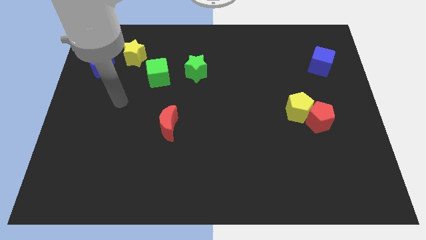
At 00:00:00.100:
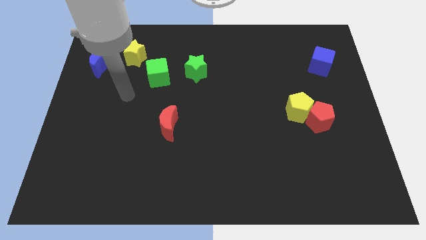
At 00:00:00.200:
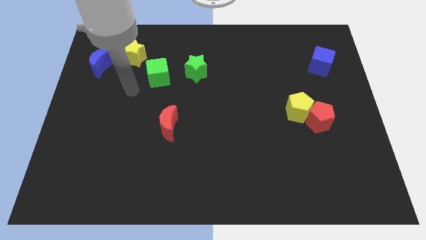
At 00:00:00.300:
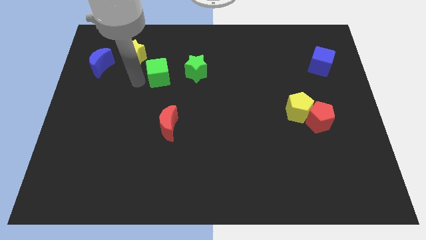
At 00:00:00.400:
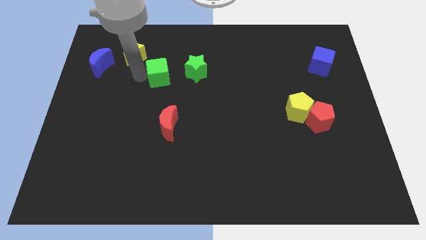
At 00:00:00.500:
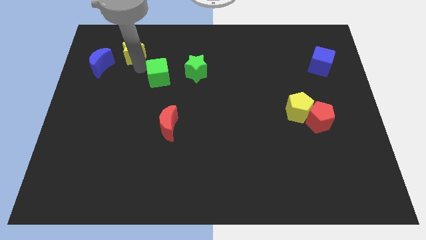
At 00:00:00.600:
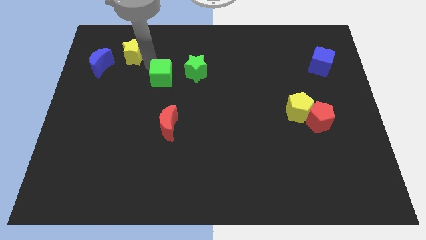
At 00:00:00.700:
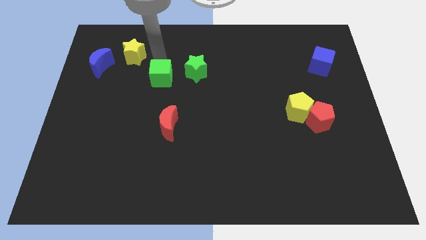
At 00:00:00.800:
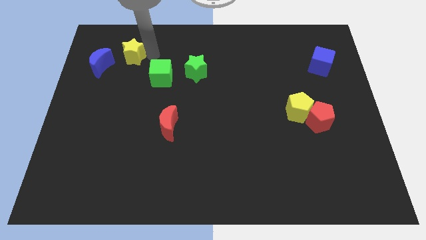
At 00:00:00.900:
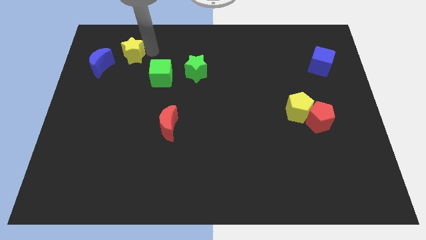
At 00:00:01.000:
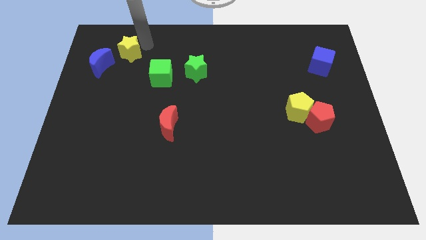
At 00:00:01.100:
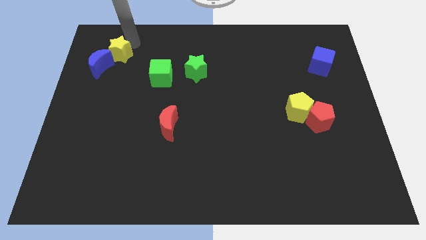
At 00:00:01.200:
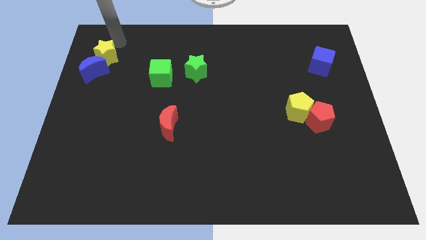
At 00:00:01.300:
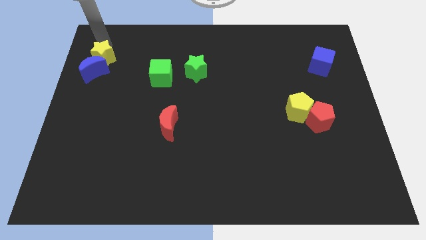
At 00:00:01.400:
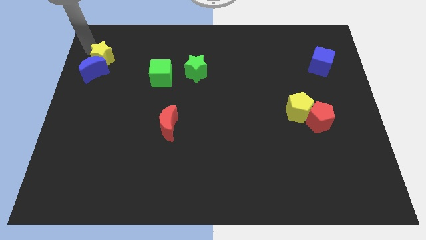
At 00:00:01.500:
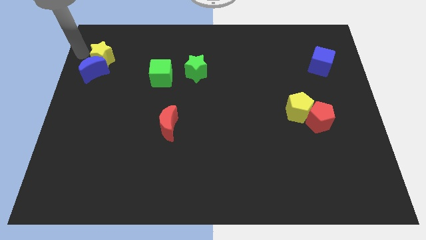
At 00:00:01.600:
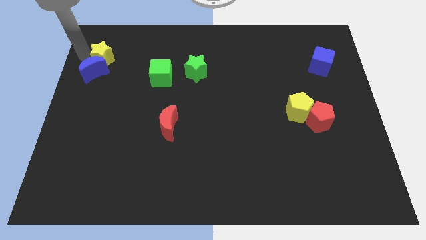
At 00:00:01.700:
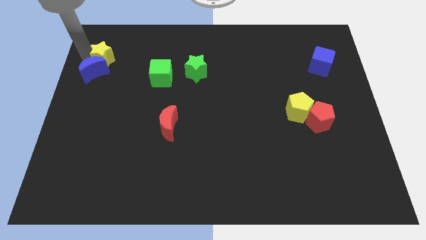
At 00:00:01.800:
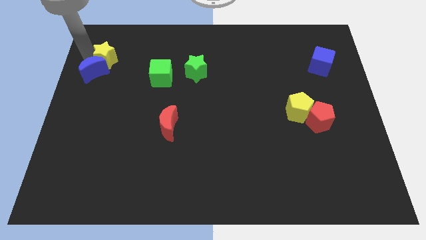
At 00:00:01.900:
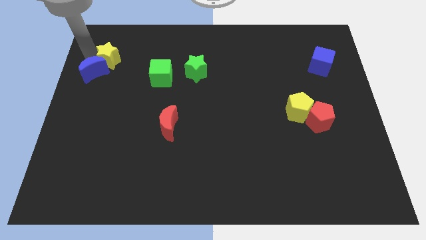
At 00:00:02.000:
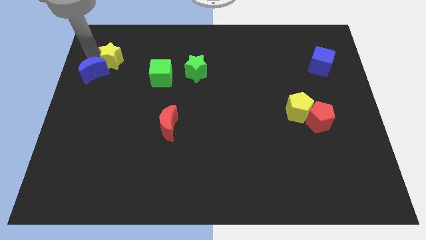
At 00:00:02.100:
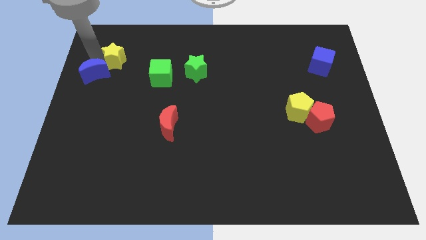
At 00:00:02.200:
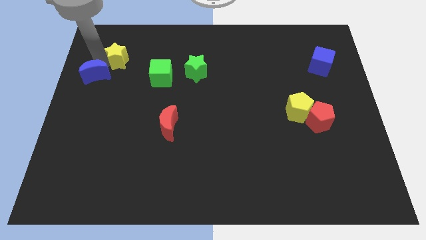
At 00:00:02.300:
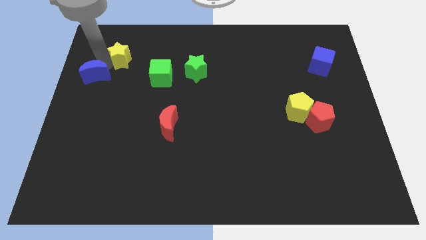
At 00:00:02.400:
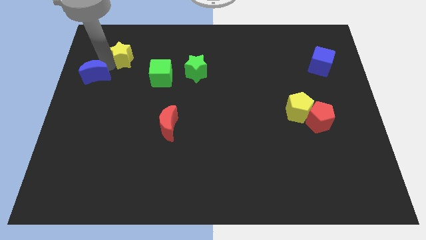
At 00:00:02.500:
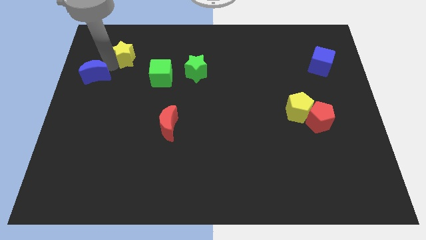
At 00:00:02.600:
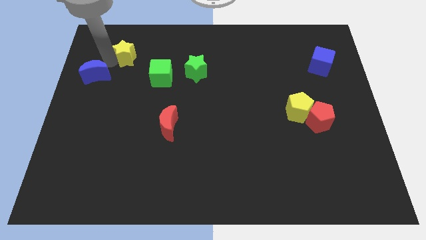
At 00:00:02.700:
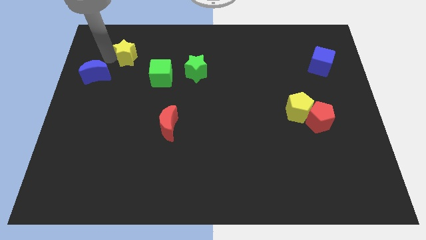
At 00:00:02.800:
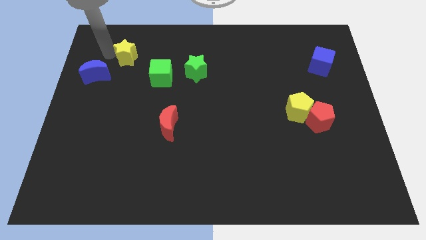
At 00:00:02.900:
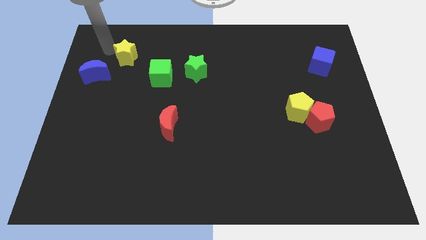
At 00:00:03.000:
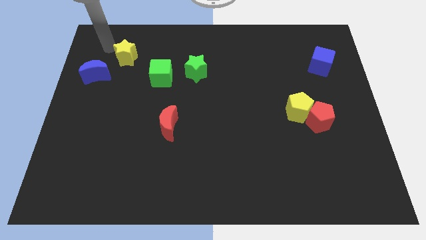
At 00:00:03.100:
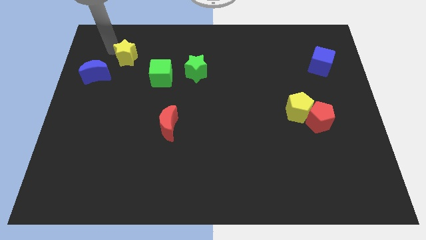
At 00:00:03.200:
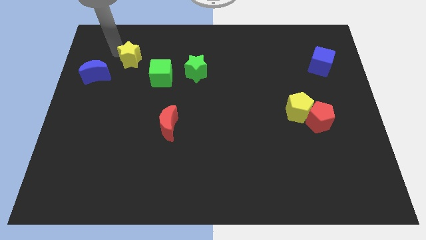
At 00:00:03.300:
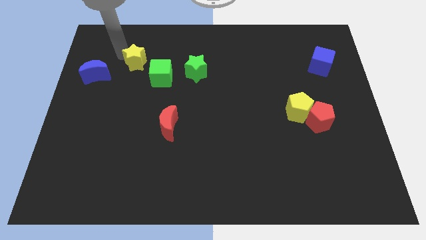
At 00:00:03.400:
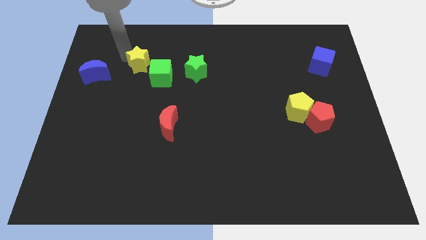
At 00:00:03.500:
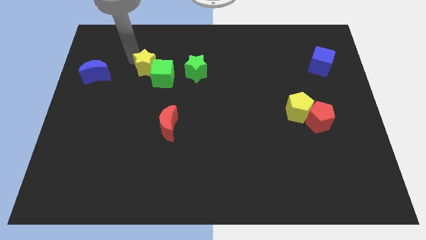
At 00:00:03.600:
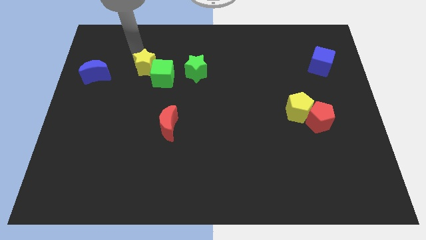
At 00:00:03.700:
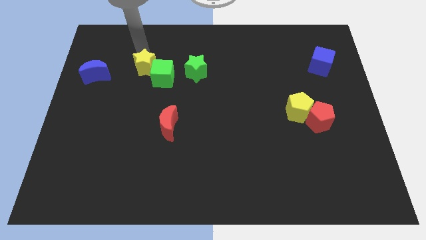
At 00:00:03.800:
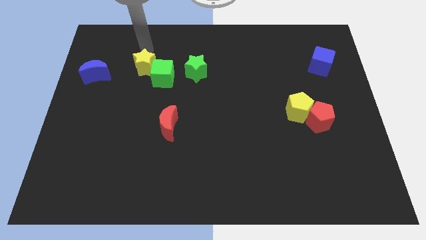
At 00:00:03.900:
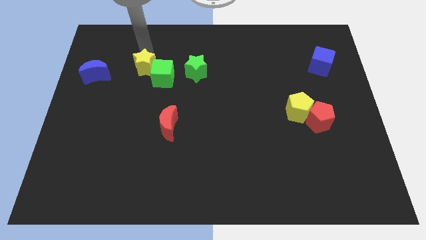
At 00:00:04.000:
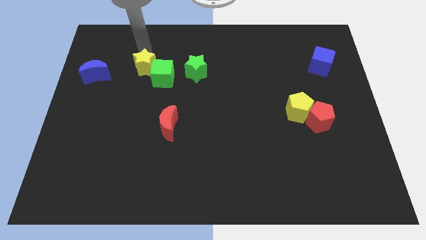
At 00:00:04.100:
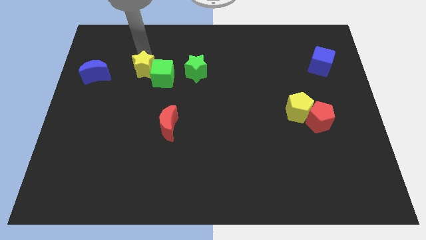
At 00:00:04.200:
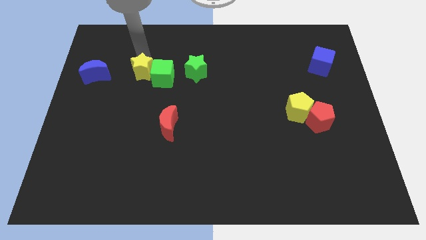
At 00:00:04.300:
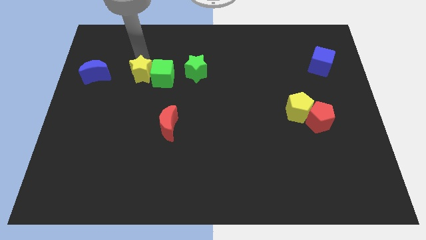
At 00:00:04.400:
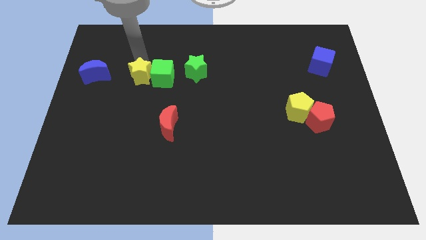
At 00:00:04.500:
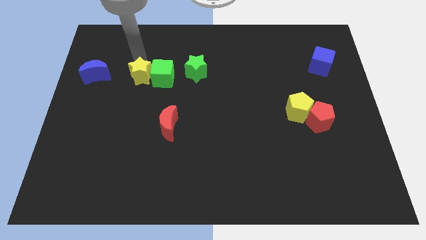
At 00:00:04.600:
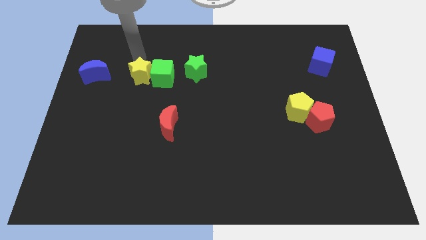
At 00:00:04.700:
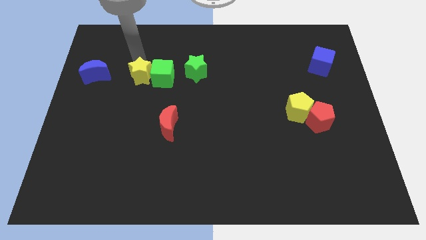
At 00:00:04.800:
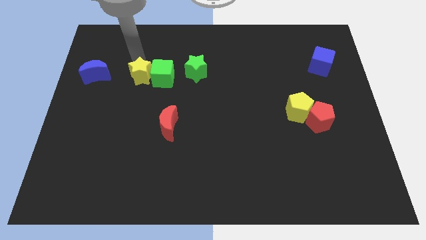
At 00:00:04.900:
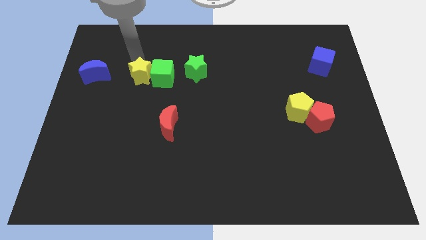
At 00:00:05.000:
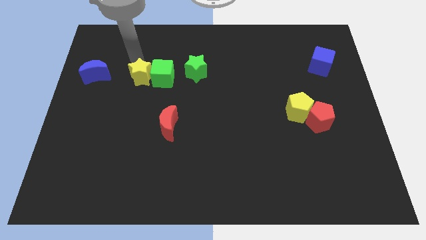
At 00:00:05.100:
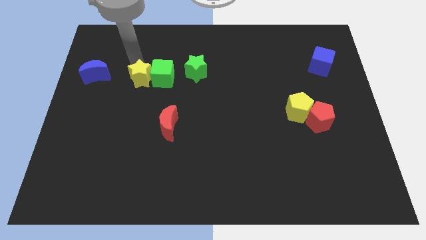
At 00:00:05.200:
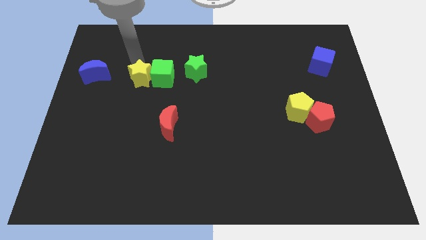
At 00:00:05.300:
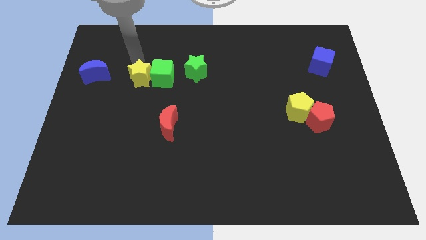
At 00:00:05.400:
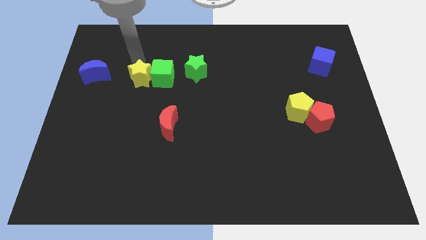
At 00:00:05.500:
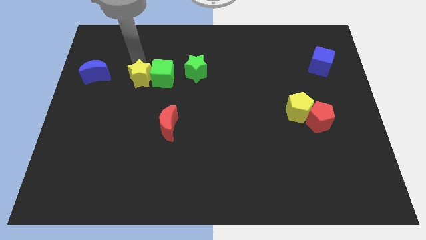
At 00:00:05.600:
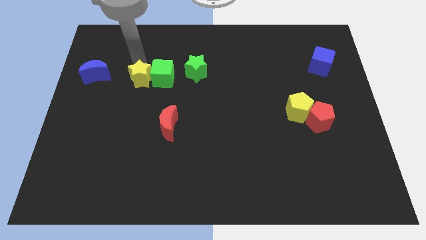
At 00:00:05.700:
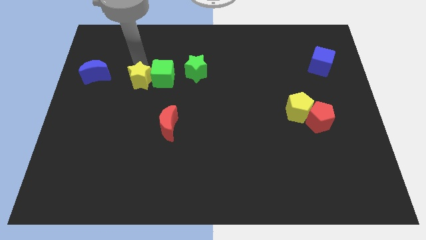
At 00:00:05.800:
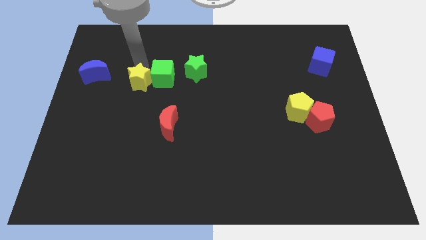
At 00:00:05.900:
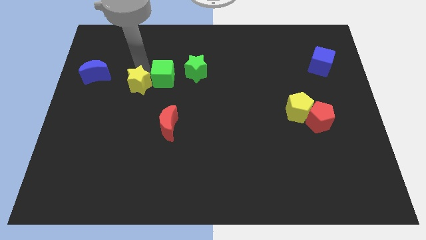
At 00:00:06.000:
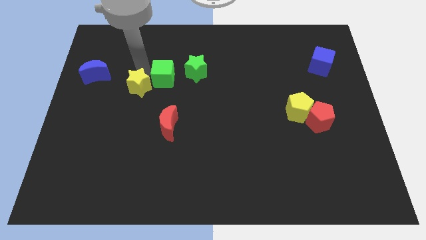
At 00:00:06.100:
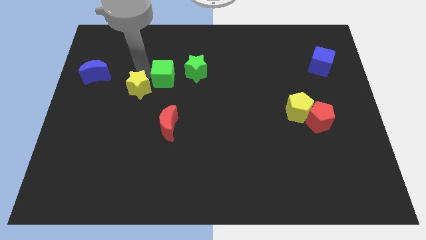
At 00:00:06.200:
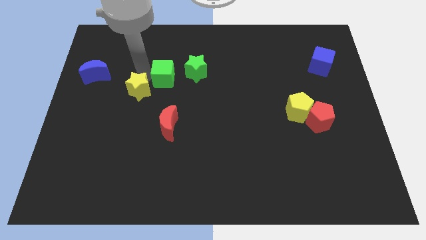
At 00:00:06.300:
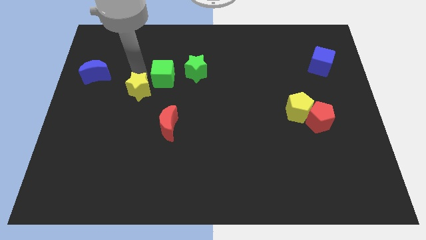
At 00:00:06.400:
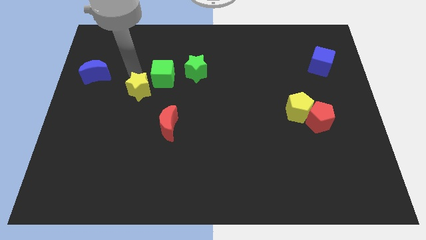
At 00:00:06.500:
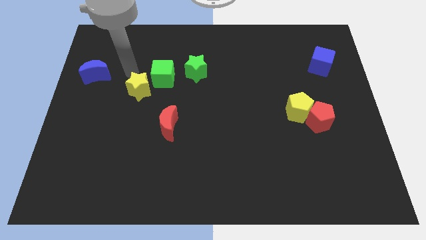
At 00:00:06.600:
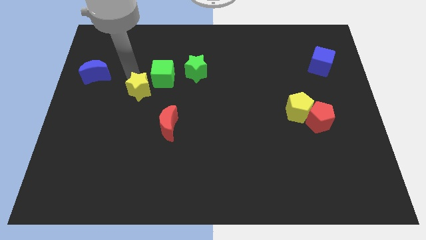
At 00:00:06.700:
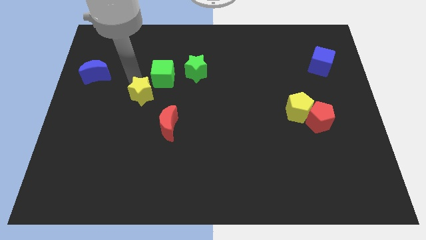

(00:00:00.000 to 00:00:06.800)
put the yellow star to the top left side of the red moon

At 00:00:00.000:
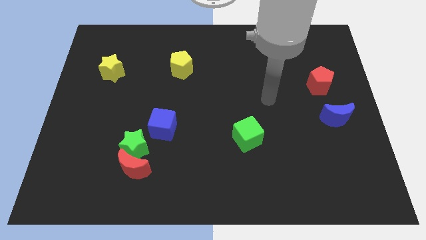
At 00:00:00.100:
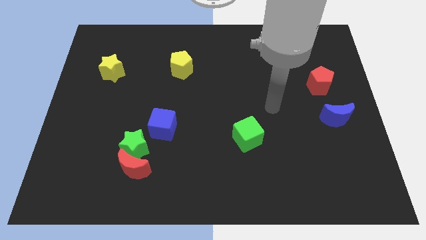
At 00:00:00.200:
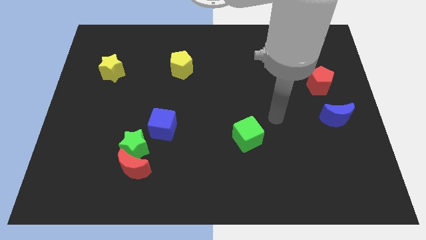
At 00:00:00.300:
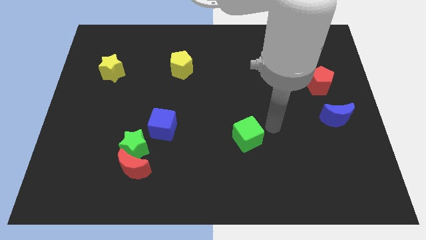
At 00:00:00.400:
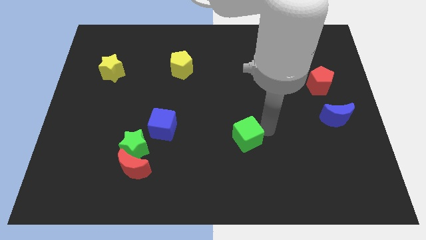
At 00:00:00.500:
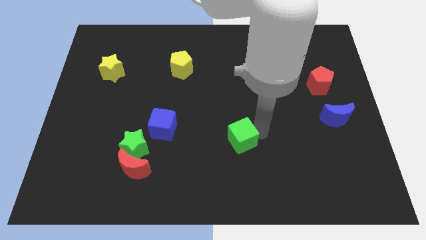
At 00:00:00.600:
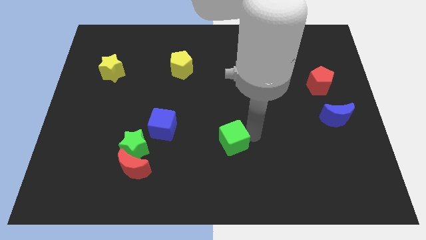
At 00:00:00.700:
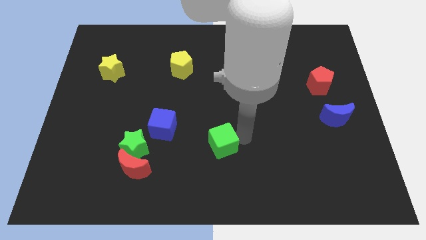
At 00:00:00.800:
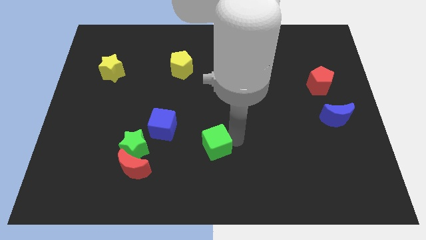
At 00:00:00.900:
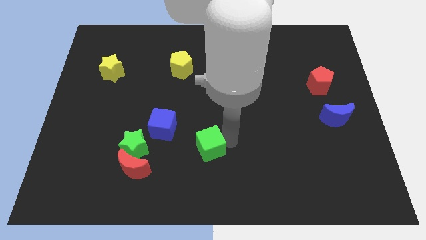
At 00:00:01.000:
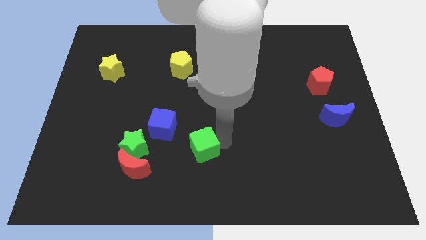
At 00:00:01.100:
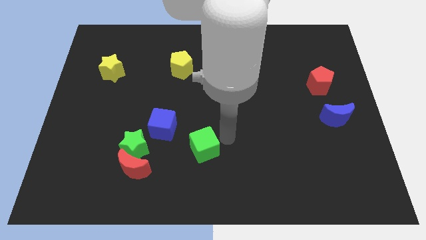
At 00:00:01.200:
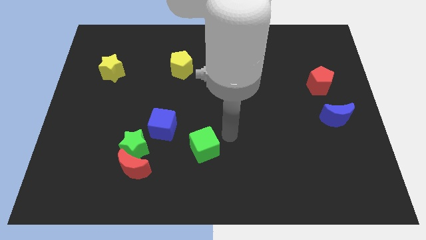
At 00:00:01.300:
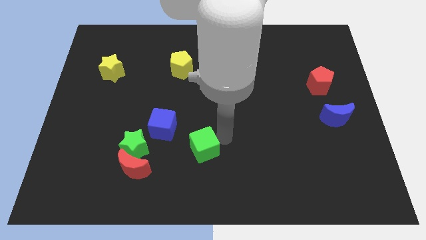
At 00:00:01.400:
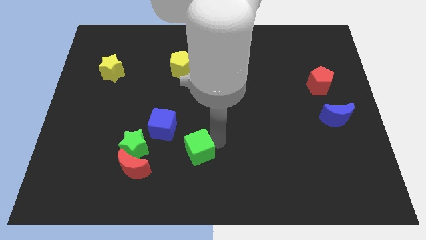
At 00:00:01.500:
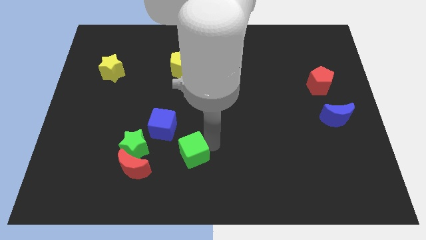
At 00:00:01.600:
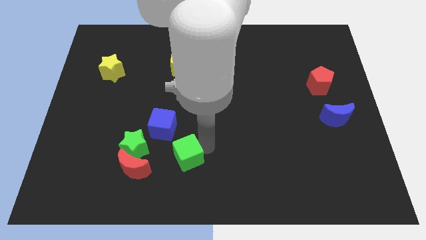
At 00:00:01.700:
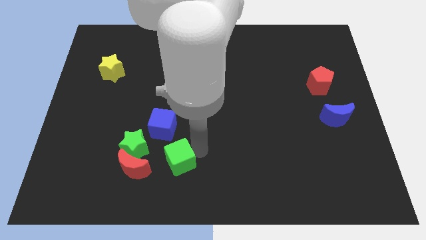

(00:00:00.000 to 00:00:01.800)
push the green cube to the bottom side of the blue cube
